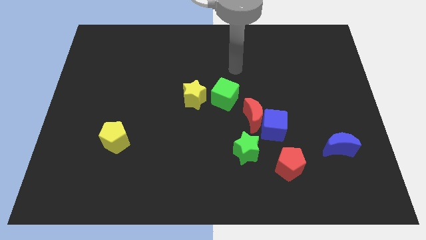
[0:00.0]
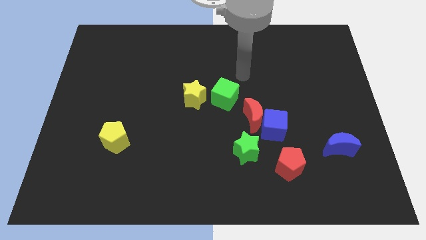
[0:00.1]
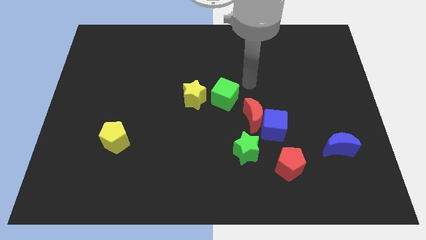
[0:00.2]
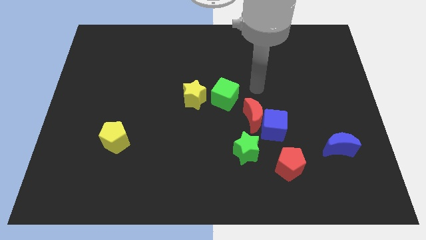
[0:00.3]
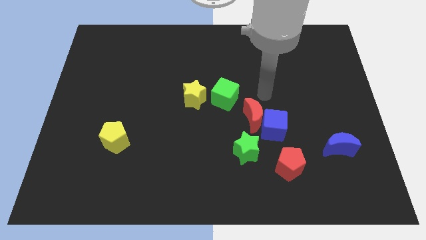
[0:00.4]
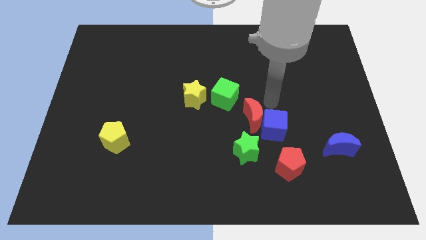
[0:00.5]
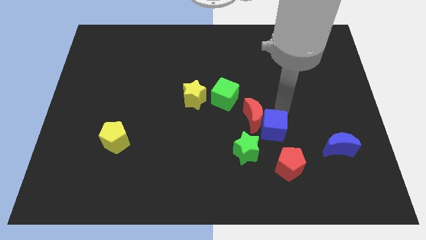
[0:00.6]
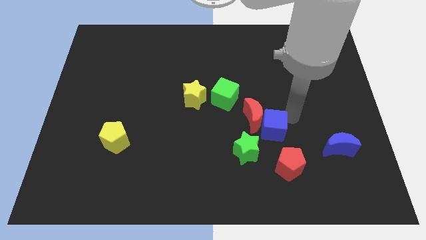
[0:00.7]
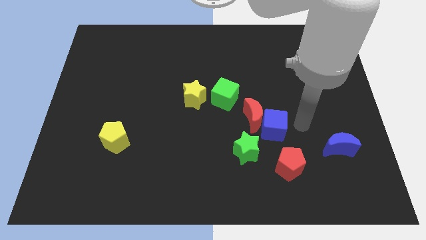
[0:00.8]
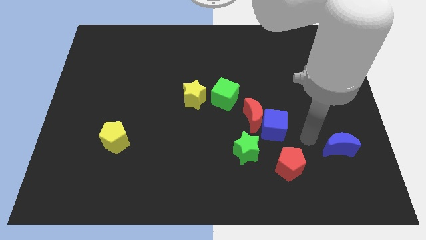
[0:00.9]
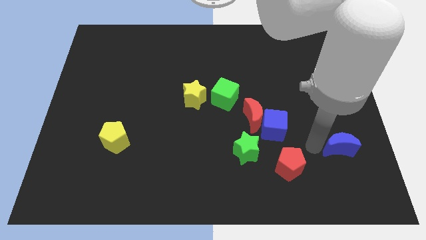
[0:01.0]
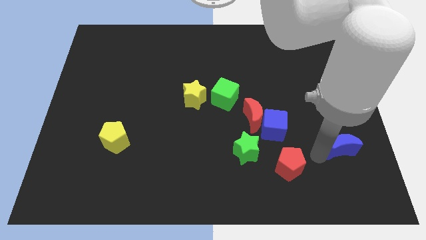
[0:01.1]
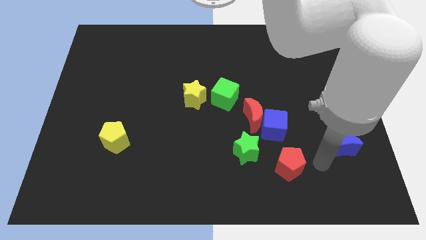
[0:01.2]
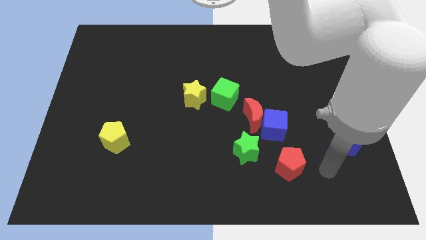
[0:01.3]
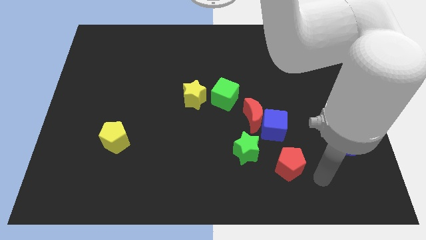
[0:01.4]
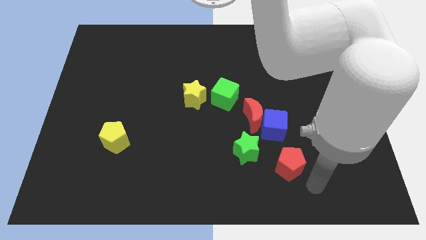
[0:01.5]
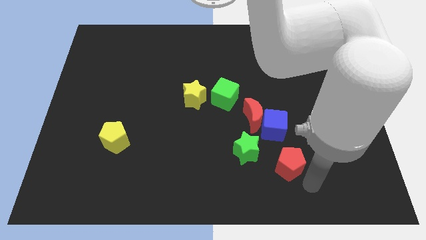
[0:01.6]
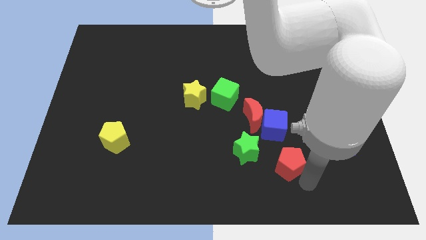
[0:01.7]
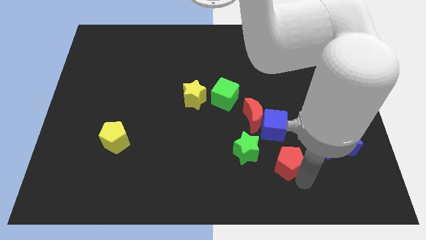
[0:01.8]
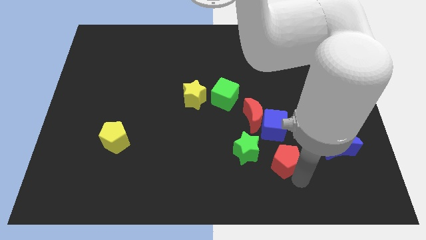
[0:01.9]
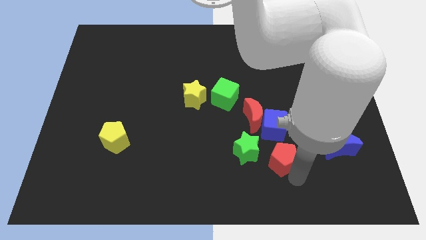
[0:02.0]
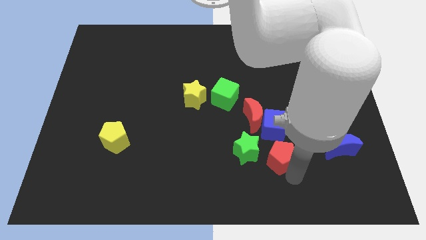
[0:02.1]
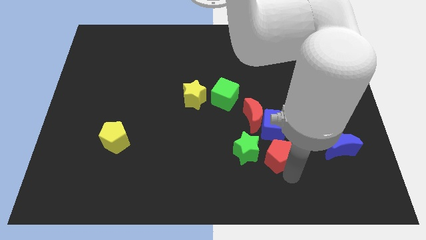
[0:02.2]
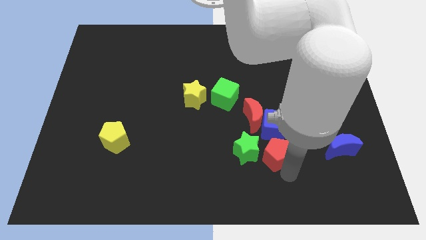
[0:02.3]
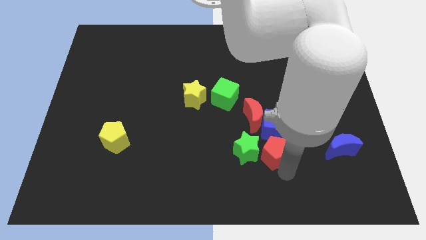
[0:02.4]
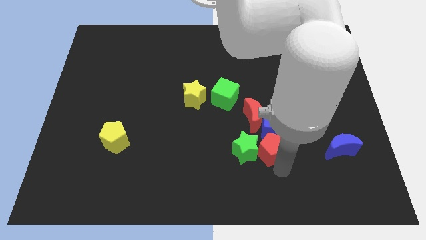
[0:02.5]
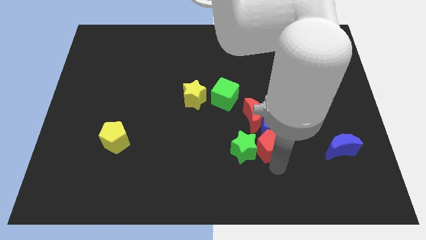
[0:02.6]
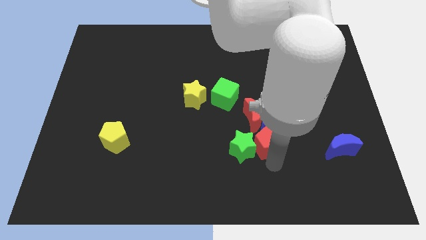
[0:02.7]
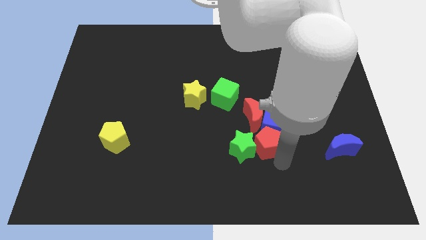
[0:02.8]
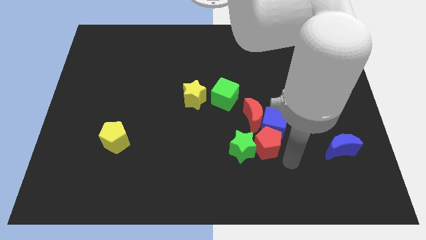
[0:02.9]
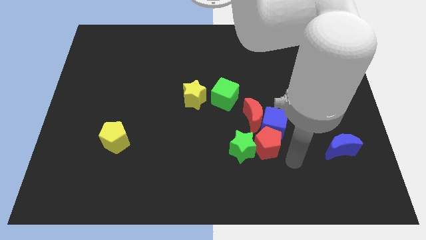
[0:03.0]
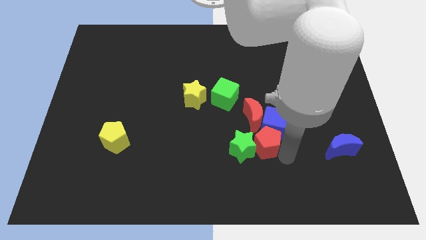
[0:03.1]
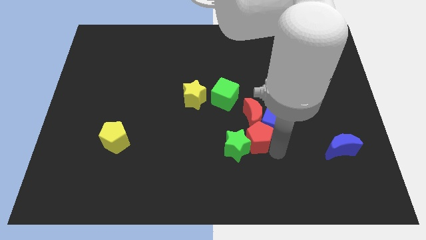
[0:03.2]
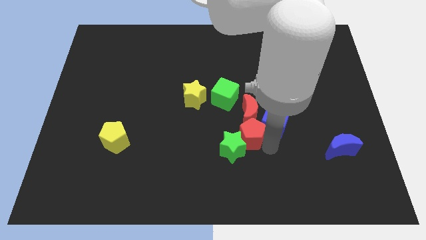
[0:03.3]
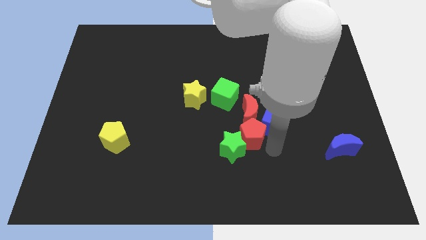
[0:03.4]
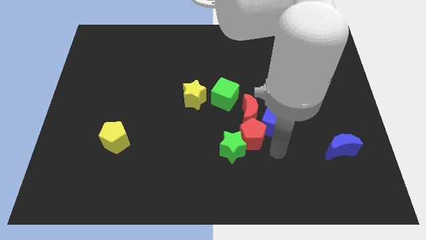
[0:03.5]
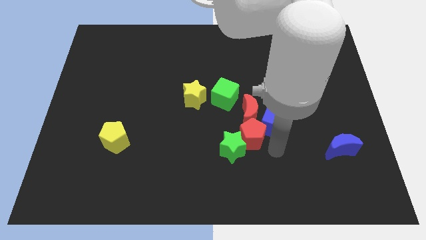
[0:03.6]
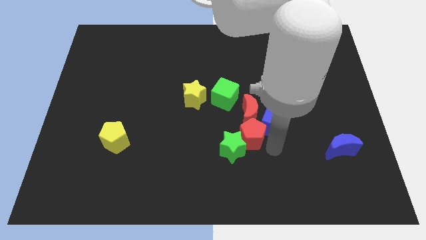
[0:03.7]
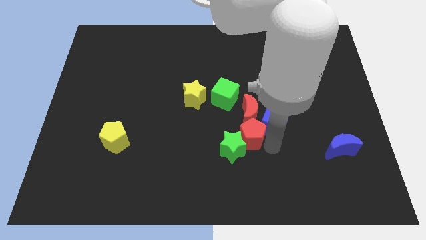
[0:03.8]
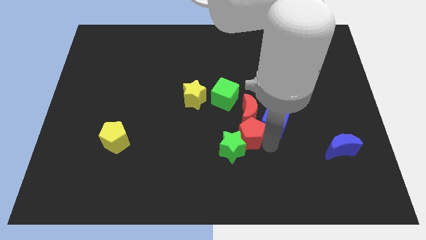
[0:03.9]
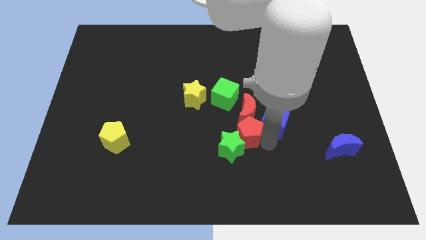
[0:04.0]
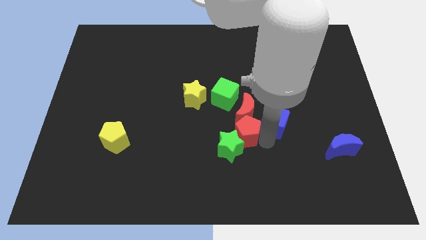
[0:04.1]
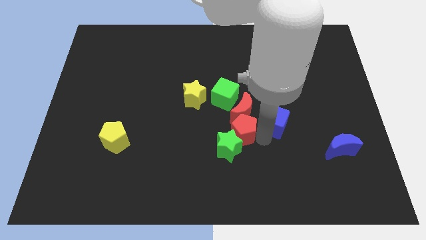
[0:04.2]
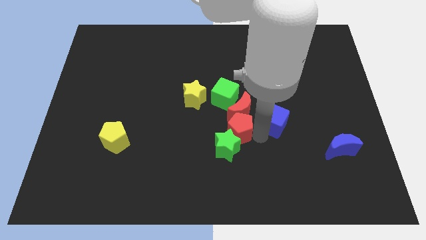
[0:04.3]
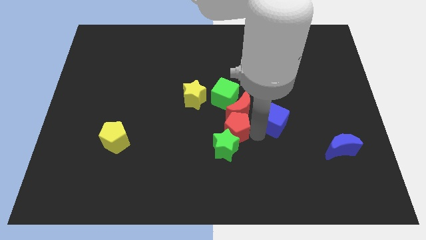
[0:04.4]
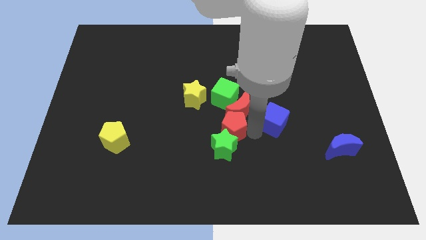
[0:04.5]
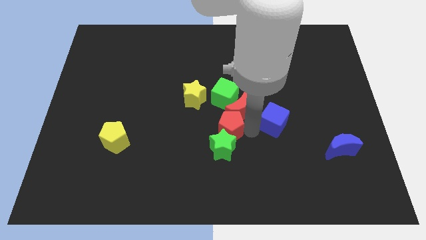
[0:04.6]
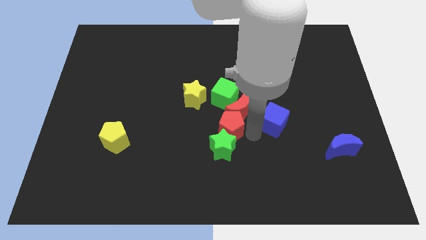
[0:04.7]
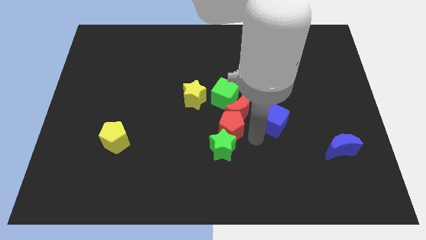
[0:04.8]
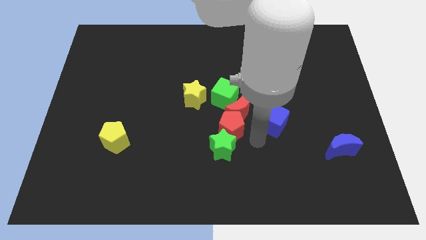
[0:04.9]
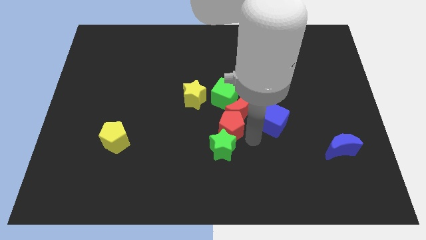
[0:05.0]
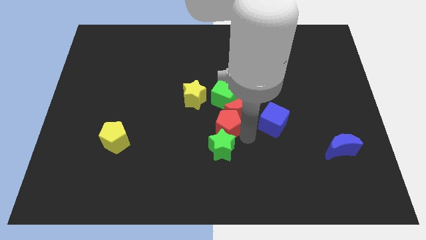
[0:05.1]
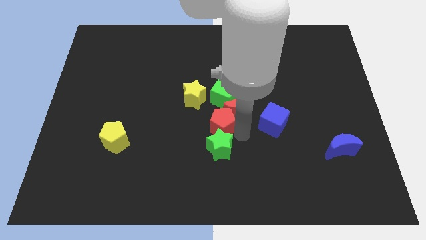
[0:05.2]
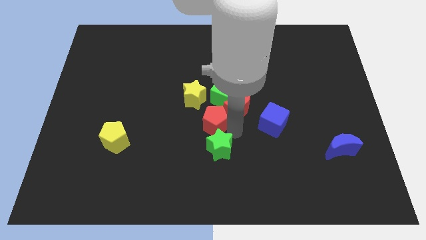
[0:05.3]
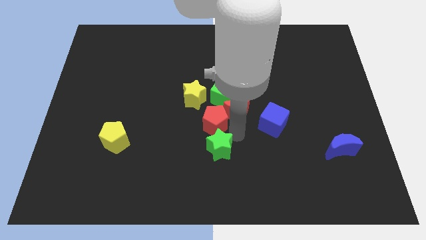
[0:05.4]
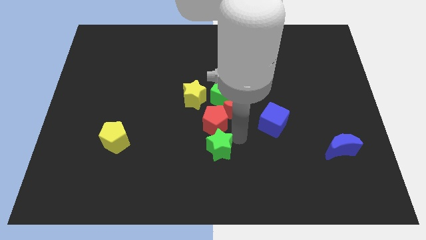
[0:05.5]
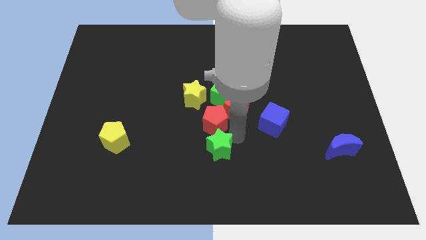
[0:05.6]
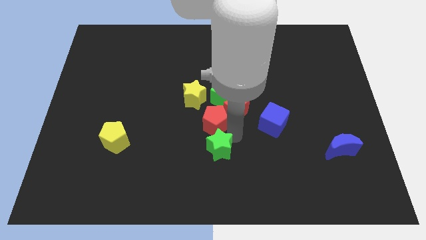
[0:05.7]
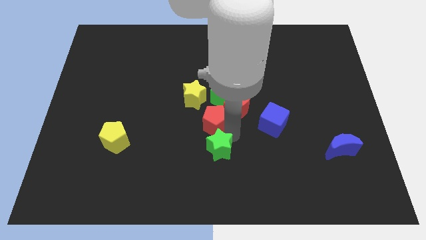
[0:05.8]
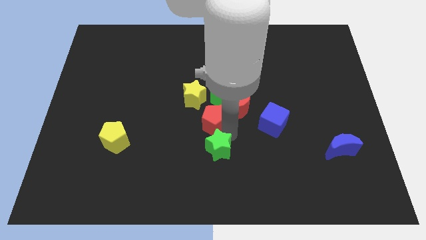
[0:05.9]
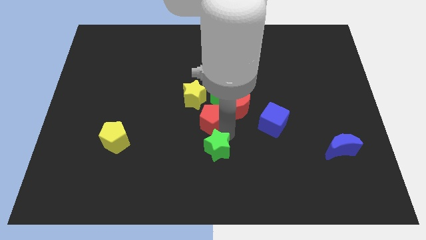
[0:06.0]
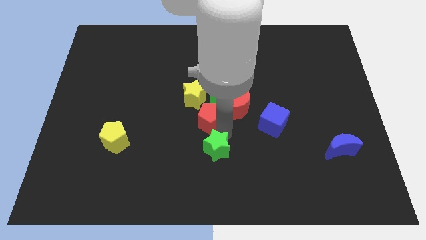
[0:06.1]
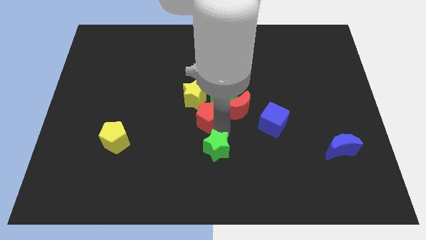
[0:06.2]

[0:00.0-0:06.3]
move the red pentagon diagonally upwards and left

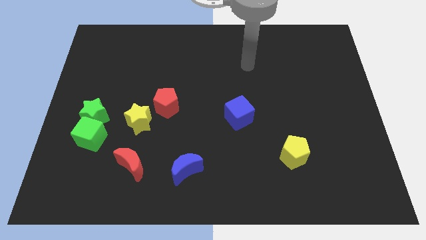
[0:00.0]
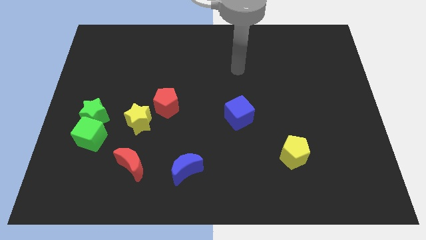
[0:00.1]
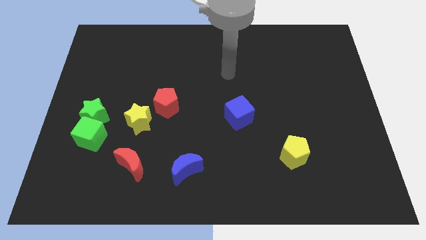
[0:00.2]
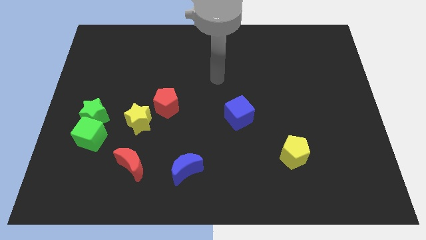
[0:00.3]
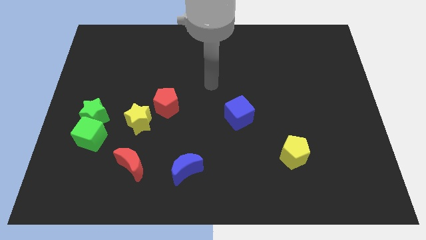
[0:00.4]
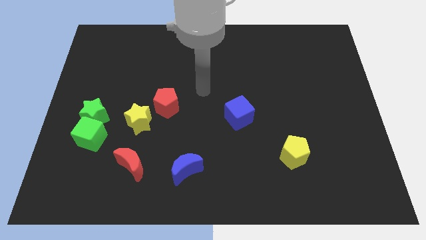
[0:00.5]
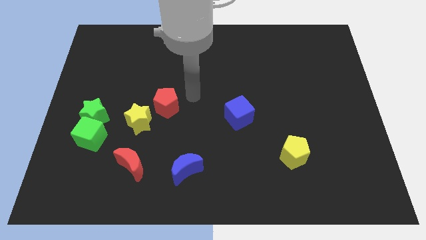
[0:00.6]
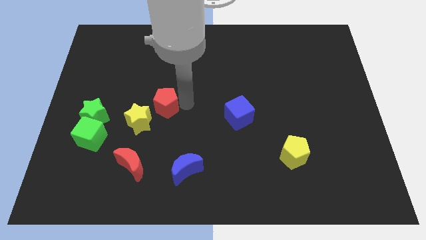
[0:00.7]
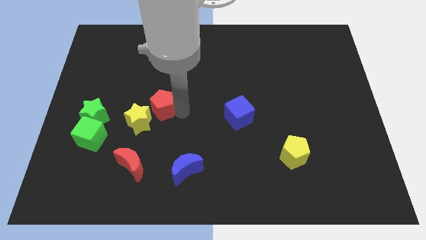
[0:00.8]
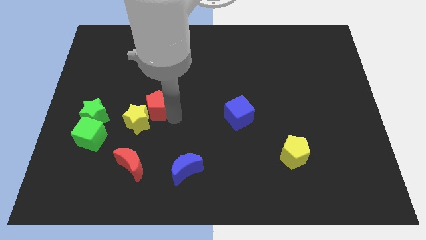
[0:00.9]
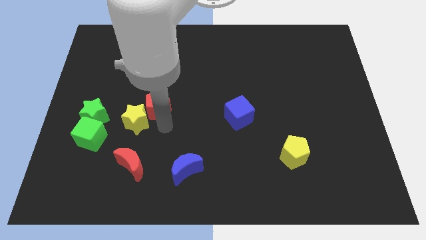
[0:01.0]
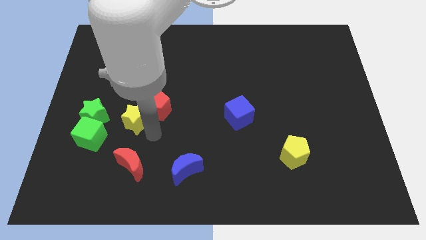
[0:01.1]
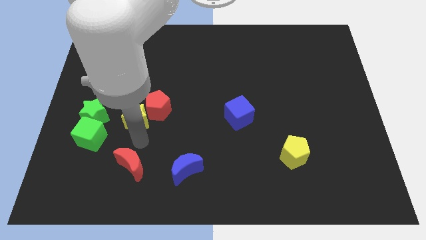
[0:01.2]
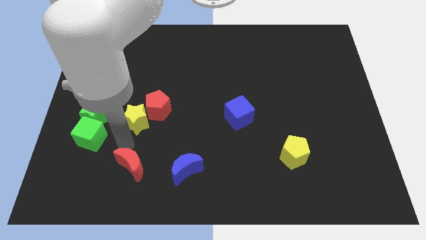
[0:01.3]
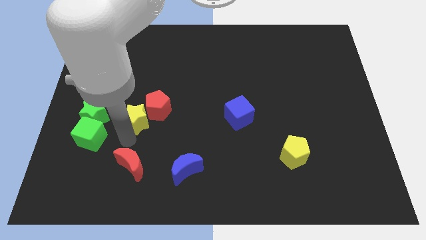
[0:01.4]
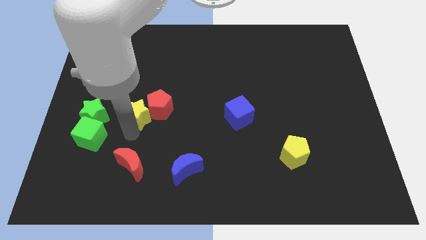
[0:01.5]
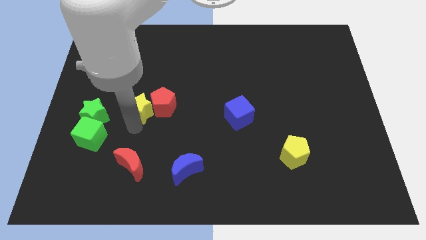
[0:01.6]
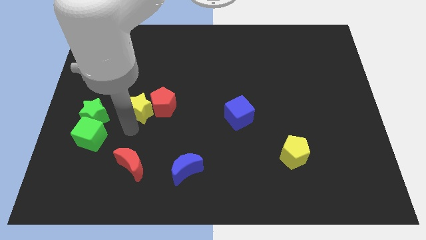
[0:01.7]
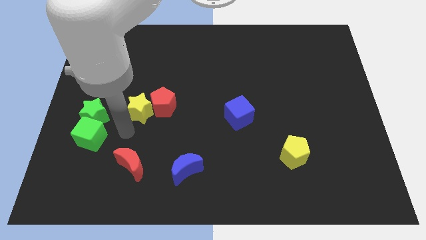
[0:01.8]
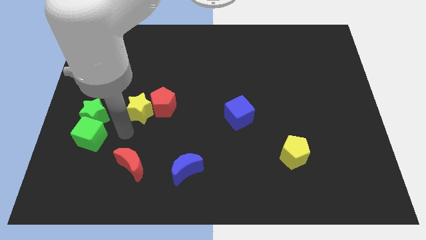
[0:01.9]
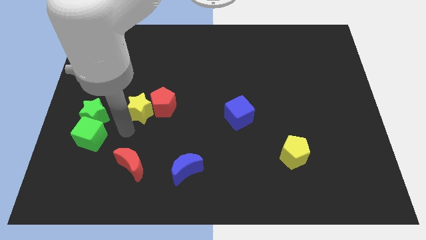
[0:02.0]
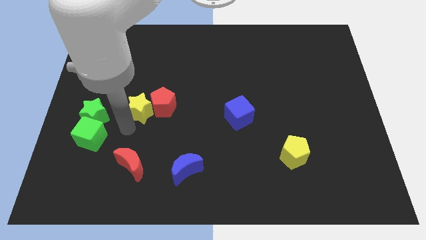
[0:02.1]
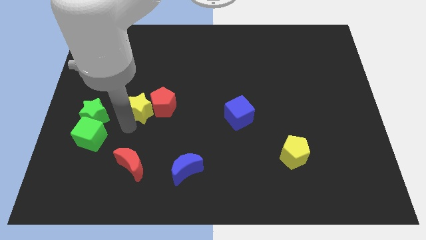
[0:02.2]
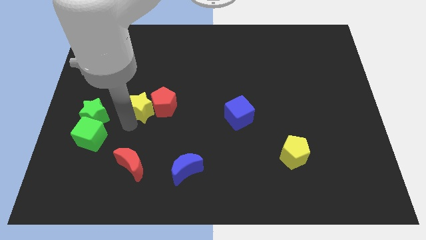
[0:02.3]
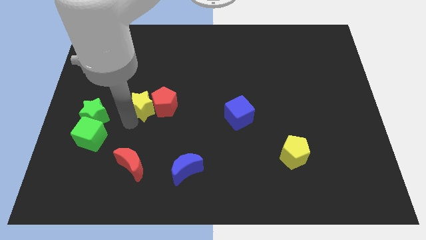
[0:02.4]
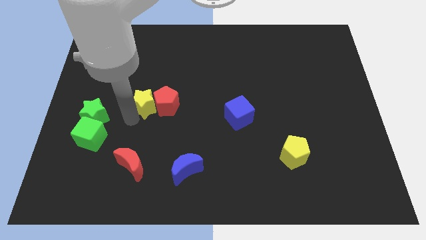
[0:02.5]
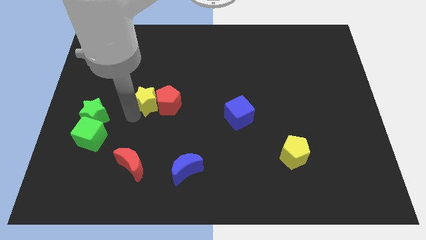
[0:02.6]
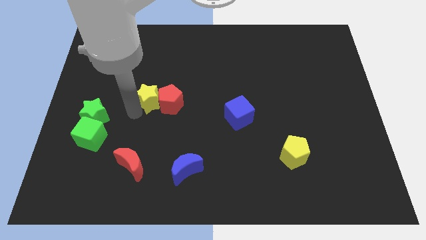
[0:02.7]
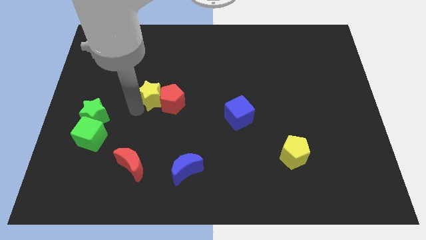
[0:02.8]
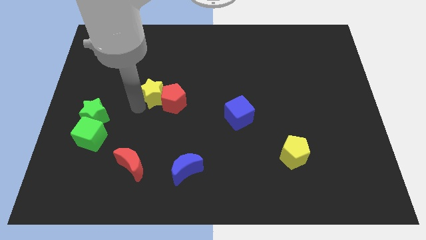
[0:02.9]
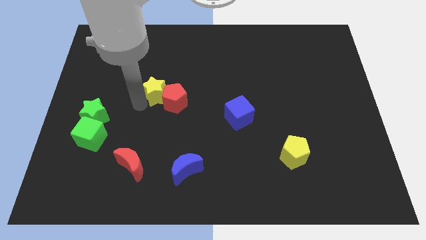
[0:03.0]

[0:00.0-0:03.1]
slide the yellow star upwards and then to the right a bit
